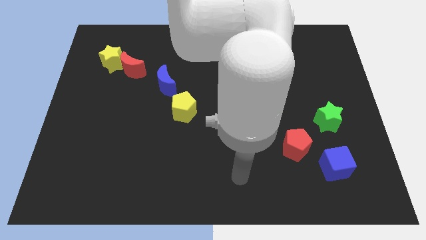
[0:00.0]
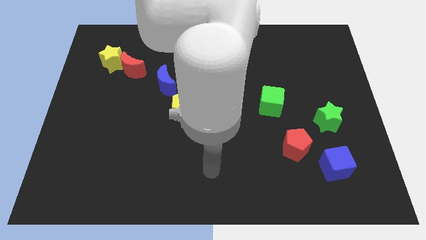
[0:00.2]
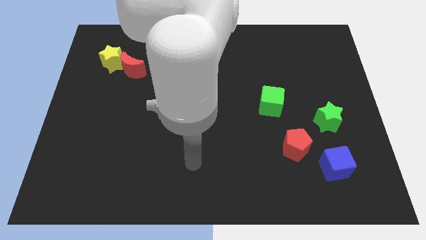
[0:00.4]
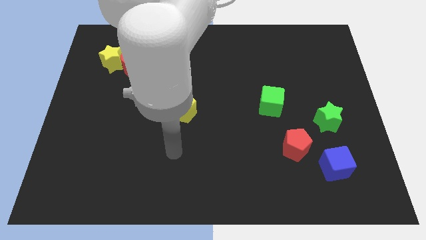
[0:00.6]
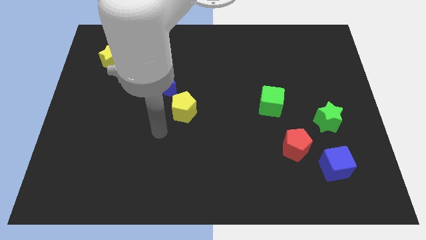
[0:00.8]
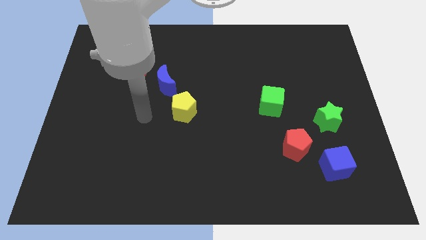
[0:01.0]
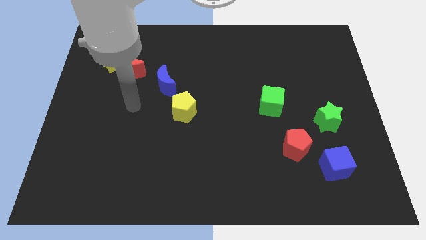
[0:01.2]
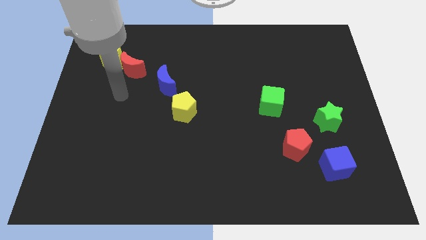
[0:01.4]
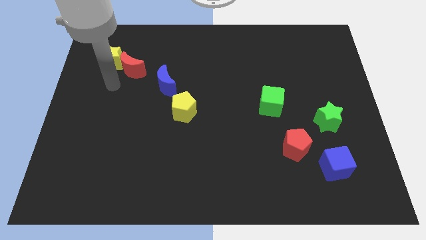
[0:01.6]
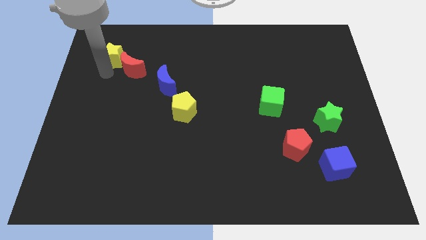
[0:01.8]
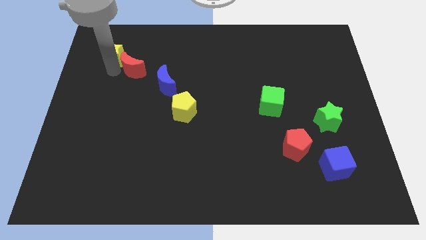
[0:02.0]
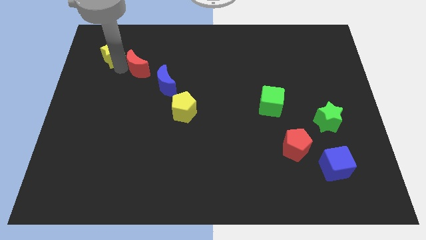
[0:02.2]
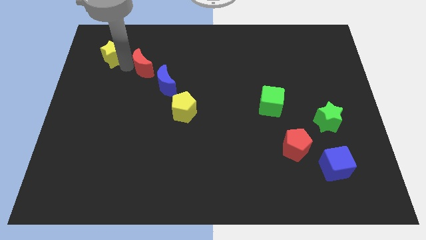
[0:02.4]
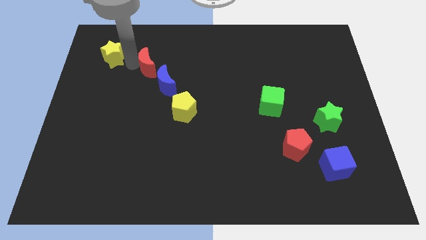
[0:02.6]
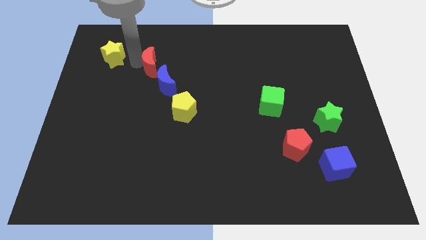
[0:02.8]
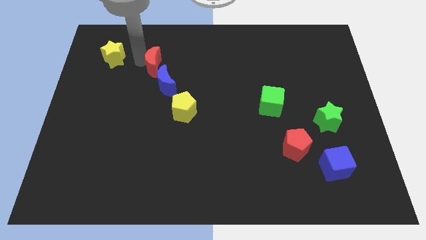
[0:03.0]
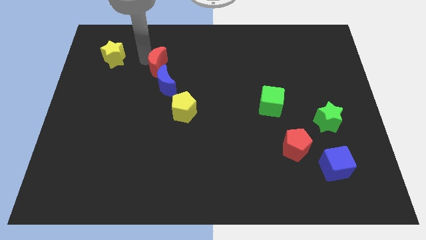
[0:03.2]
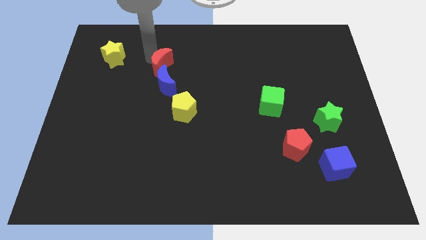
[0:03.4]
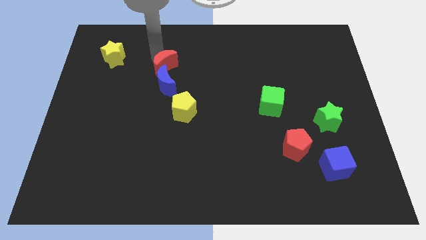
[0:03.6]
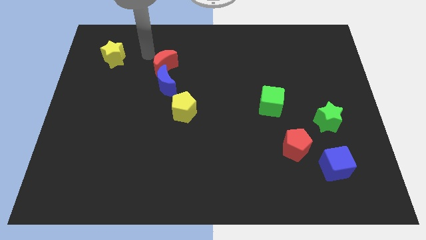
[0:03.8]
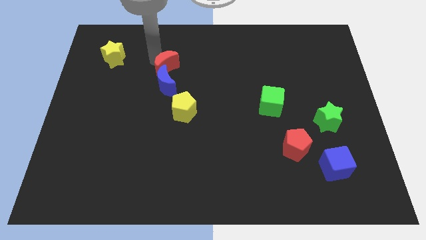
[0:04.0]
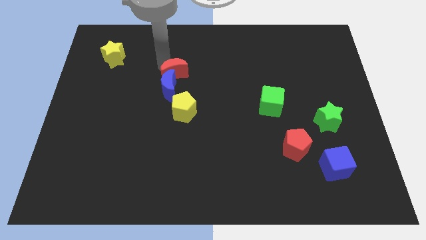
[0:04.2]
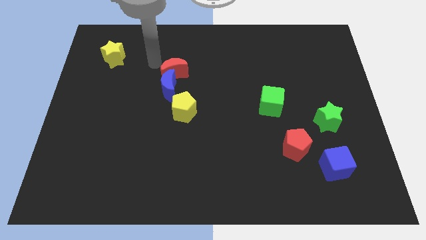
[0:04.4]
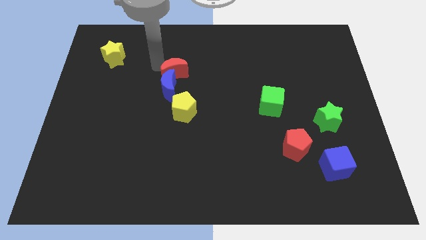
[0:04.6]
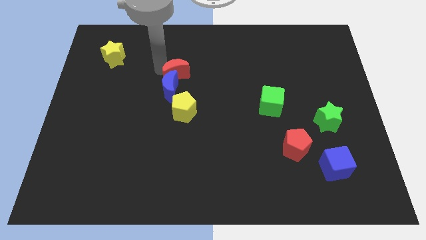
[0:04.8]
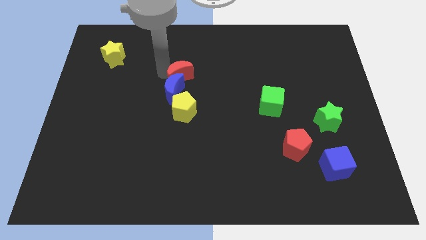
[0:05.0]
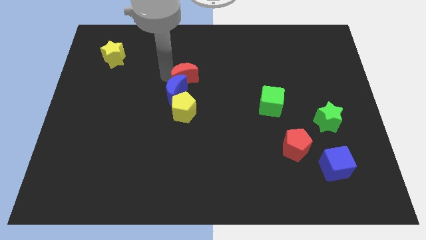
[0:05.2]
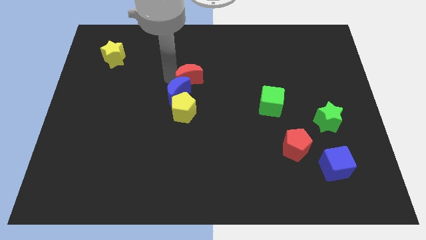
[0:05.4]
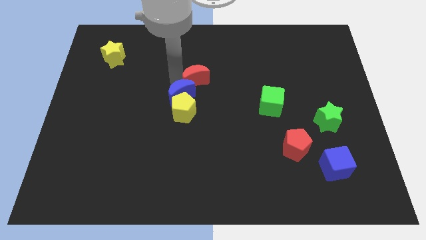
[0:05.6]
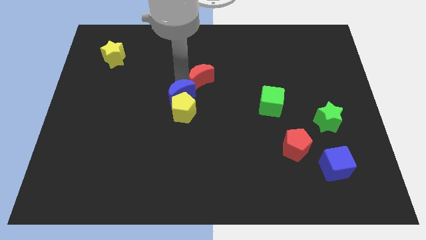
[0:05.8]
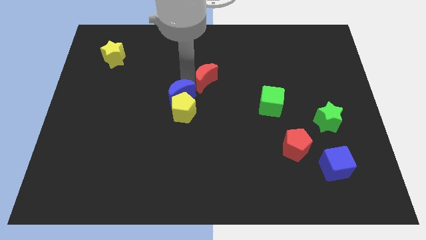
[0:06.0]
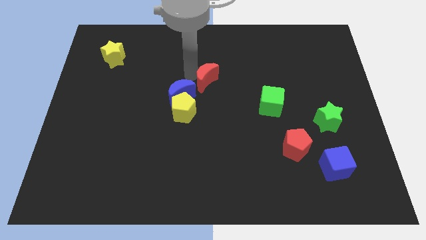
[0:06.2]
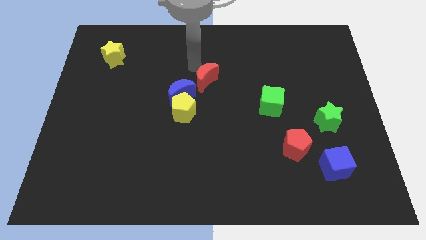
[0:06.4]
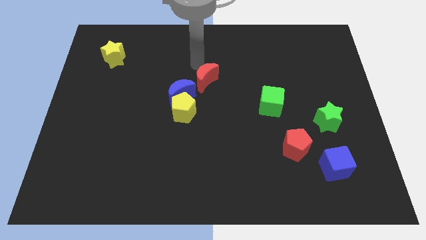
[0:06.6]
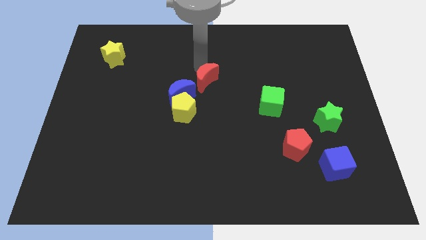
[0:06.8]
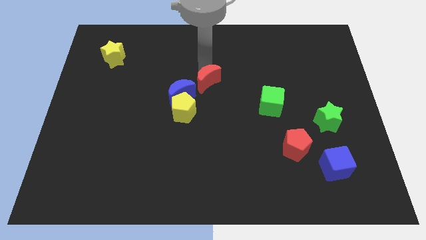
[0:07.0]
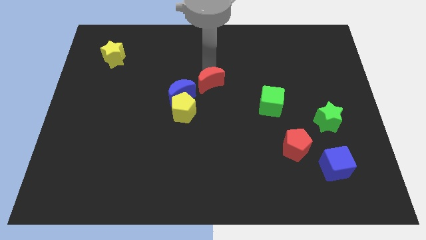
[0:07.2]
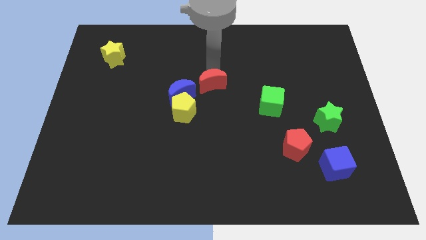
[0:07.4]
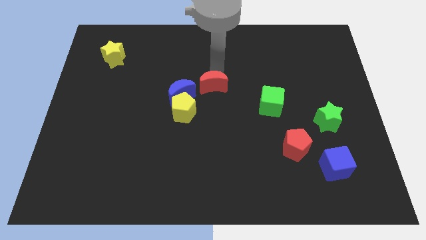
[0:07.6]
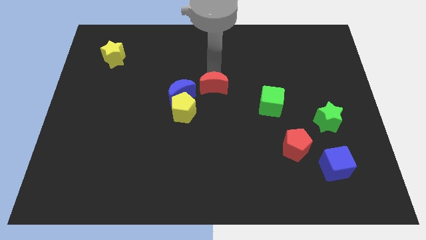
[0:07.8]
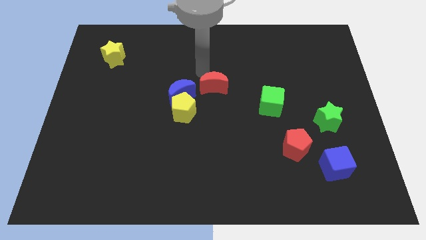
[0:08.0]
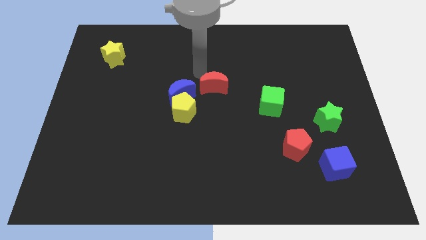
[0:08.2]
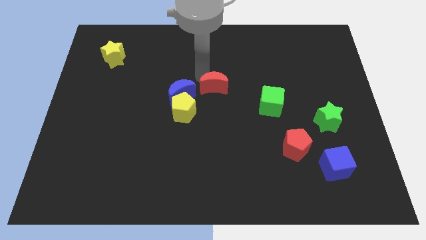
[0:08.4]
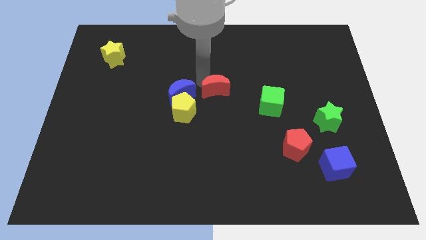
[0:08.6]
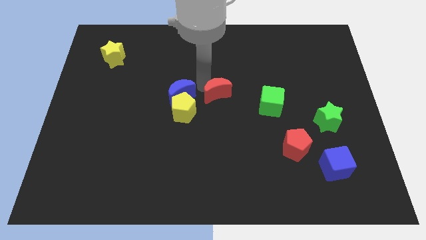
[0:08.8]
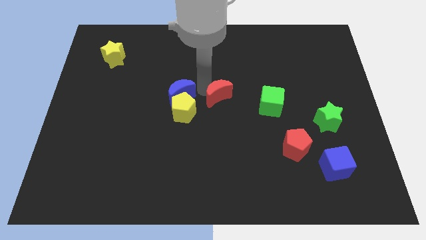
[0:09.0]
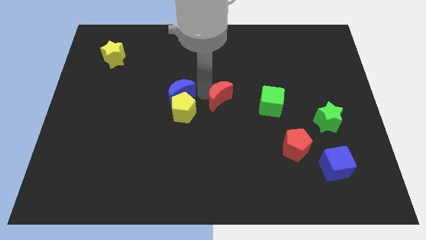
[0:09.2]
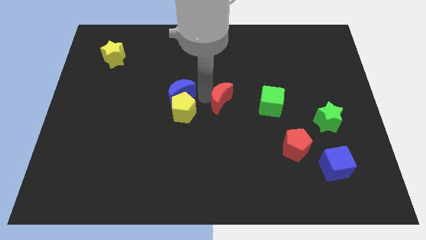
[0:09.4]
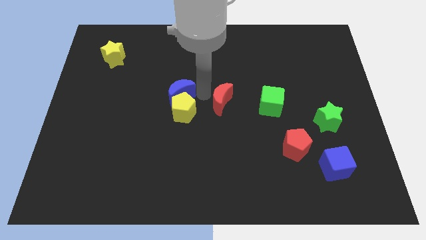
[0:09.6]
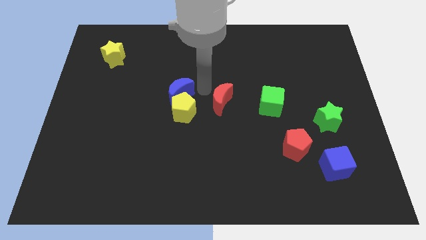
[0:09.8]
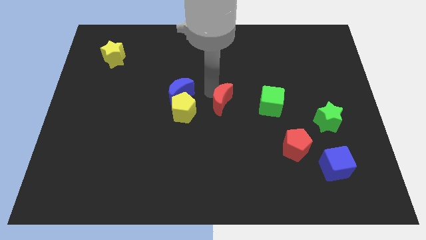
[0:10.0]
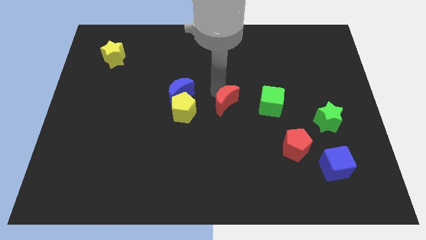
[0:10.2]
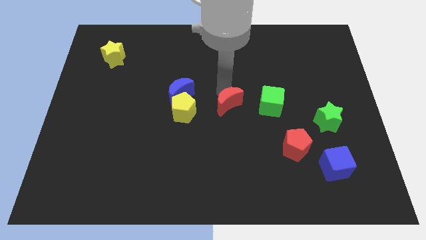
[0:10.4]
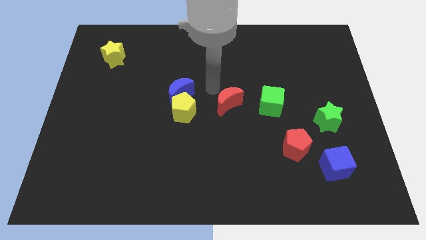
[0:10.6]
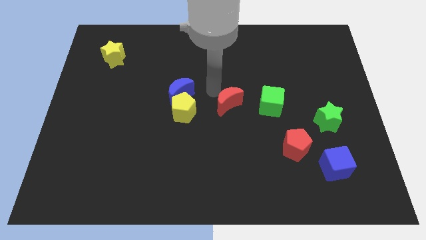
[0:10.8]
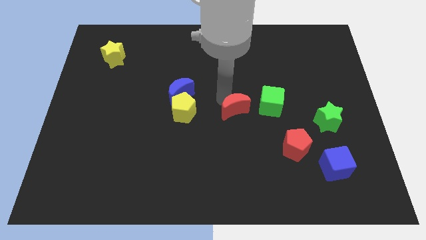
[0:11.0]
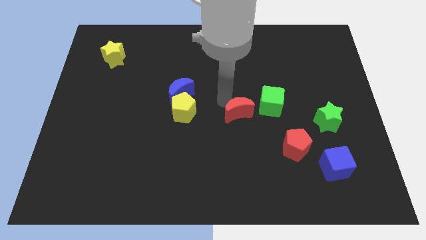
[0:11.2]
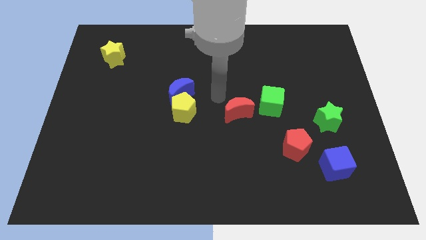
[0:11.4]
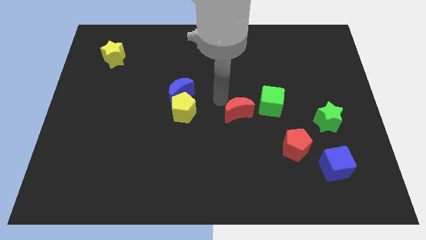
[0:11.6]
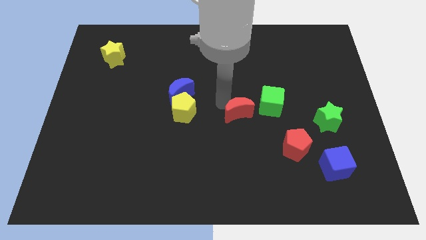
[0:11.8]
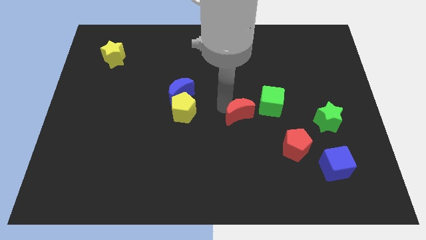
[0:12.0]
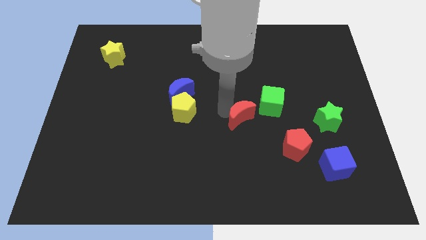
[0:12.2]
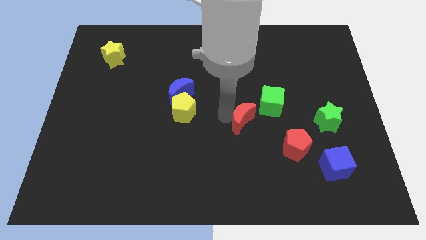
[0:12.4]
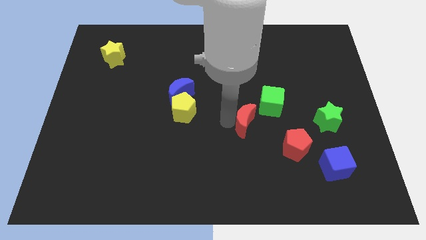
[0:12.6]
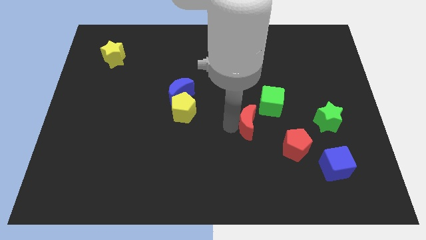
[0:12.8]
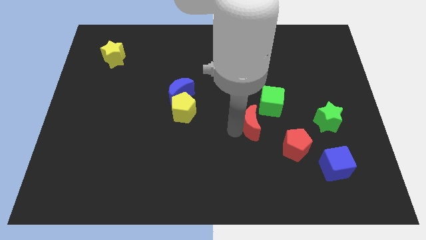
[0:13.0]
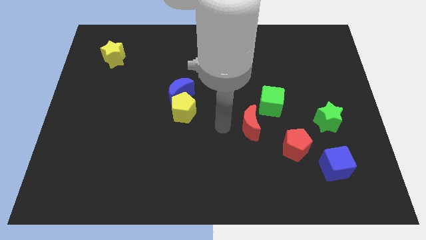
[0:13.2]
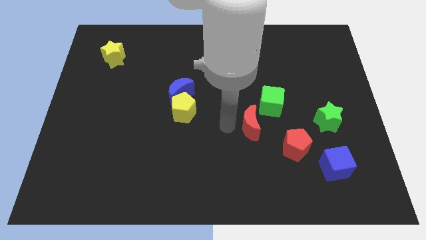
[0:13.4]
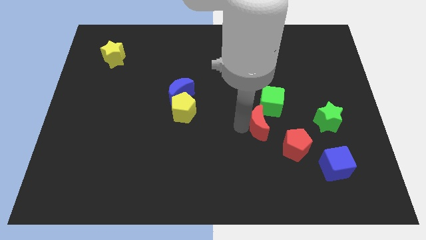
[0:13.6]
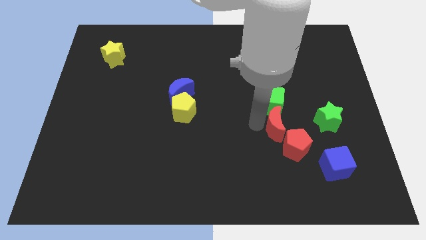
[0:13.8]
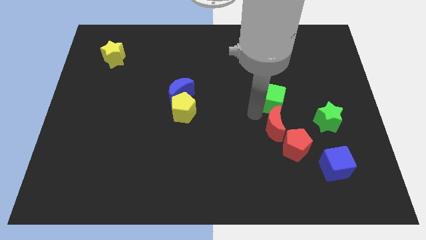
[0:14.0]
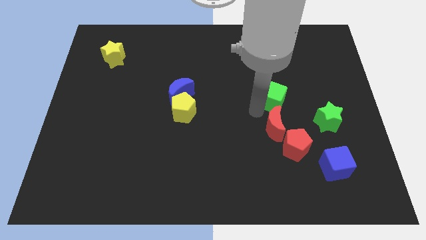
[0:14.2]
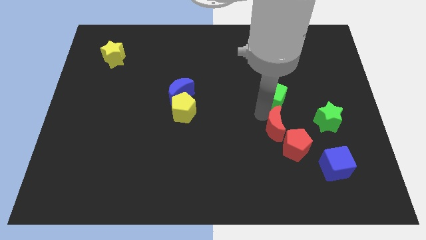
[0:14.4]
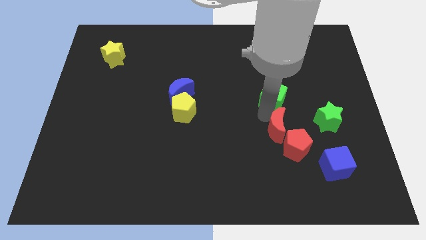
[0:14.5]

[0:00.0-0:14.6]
move the red moon next to the red pentagon
